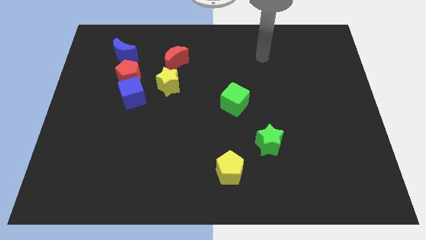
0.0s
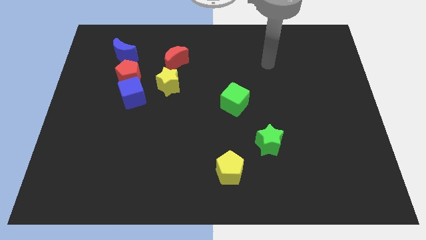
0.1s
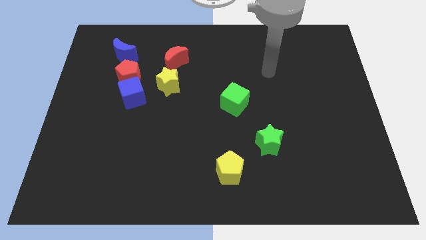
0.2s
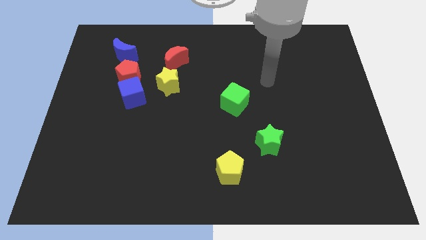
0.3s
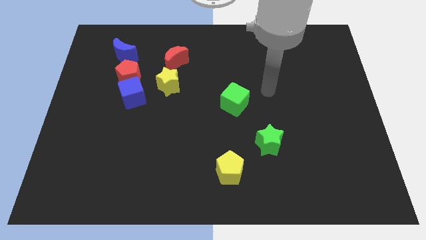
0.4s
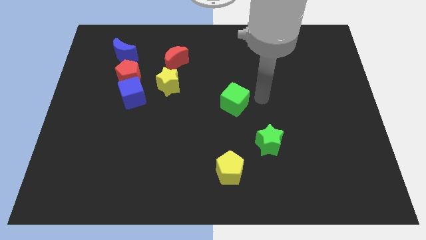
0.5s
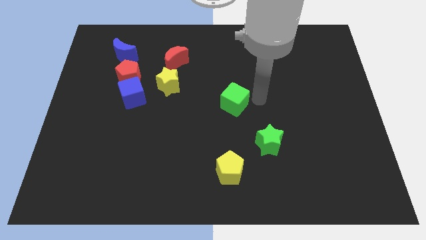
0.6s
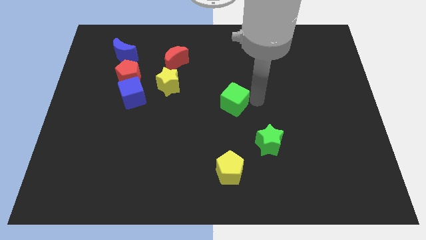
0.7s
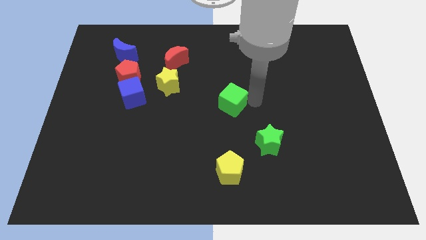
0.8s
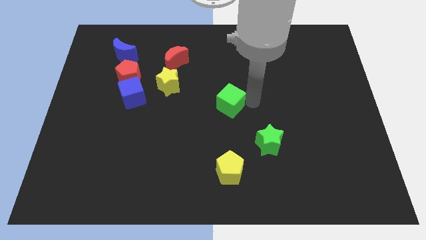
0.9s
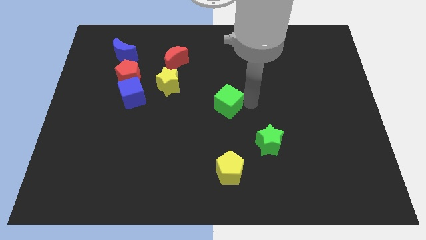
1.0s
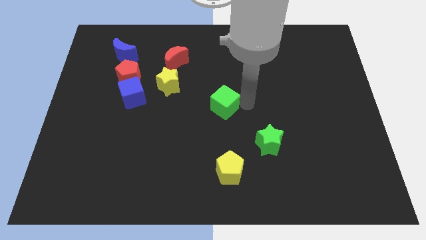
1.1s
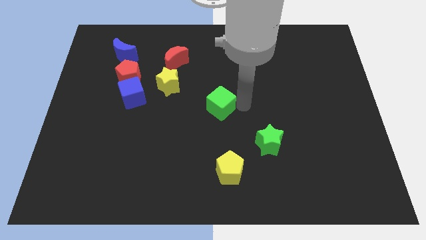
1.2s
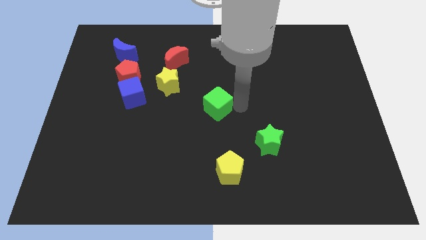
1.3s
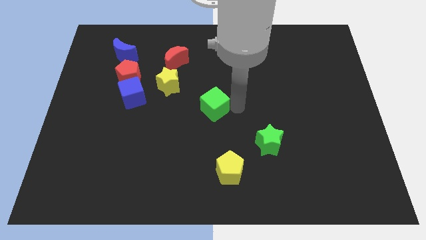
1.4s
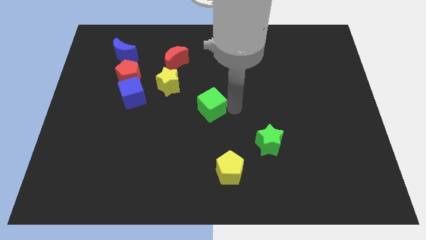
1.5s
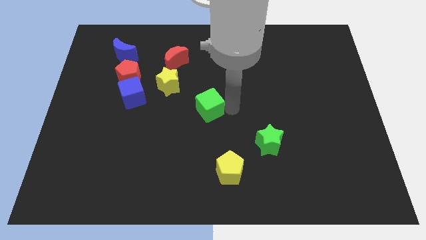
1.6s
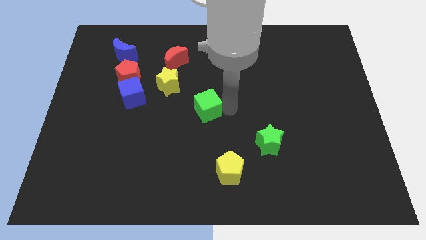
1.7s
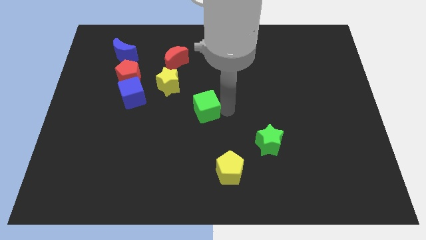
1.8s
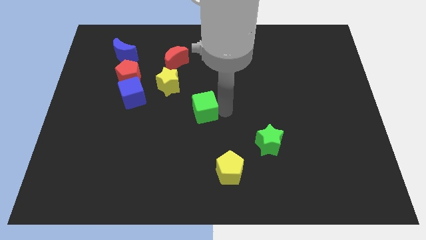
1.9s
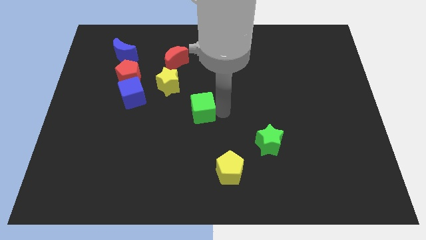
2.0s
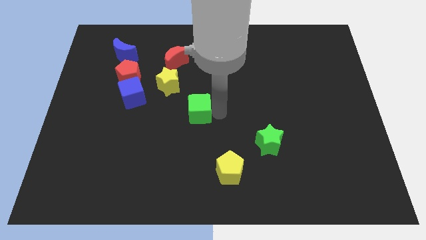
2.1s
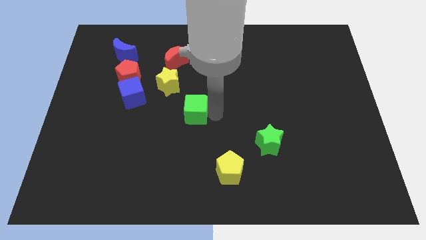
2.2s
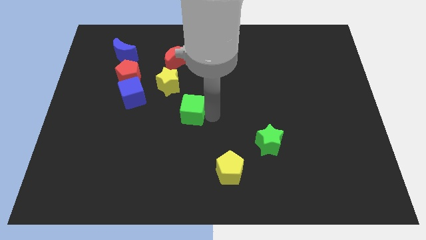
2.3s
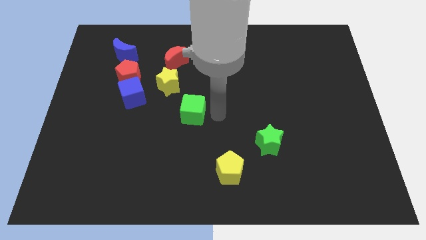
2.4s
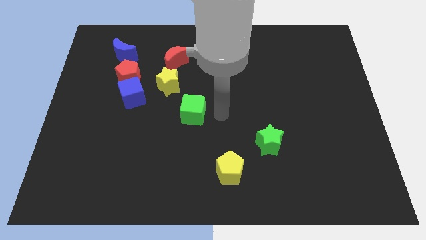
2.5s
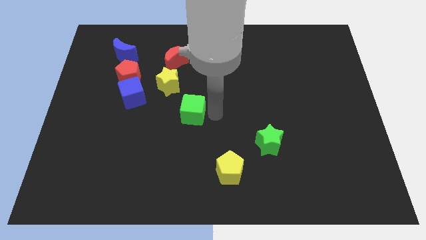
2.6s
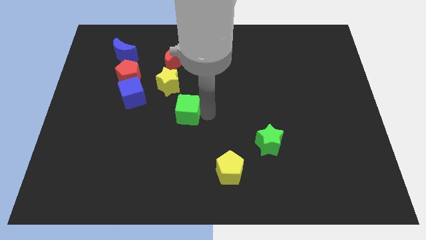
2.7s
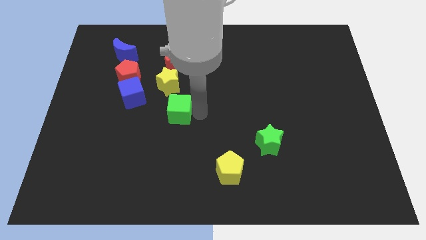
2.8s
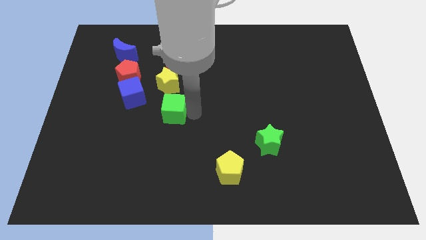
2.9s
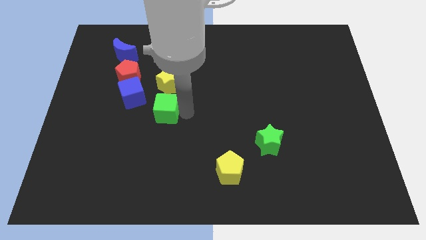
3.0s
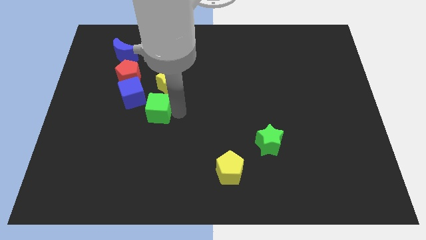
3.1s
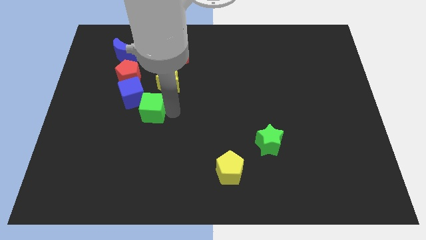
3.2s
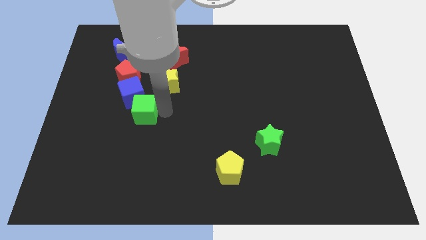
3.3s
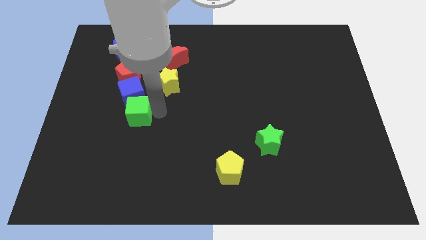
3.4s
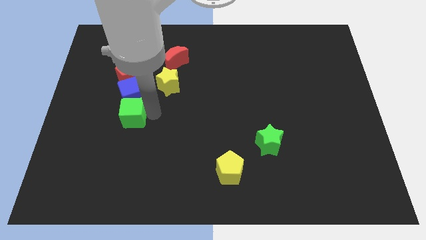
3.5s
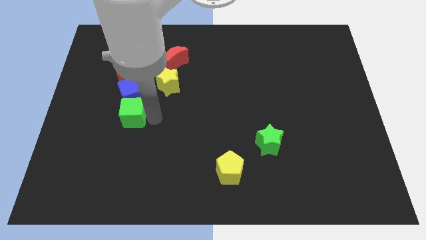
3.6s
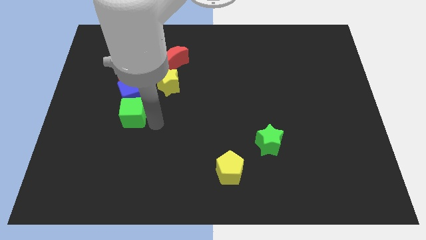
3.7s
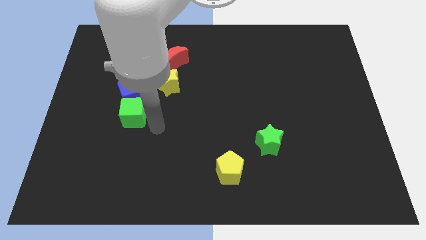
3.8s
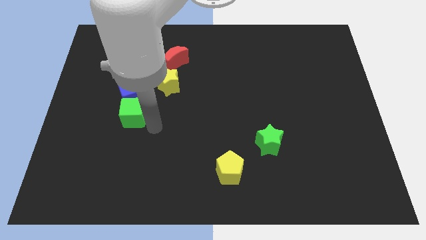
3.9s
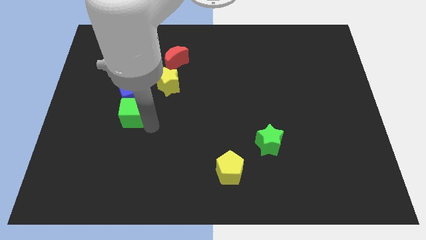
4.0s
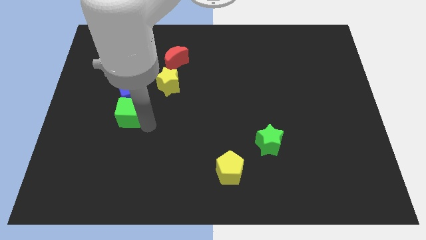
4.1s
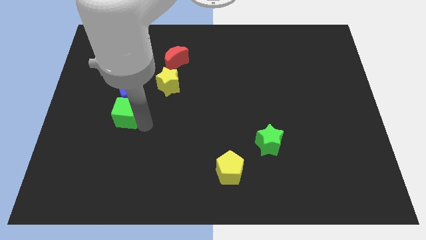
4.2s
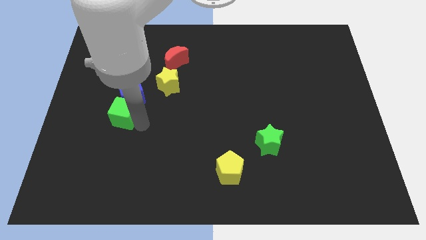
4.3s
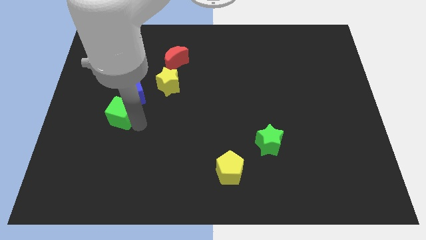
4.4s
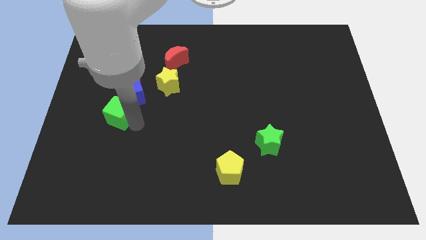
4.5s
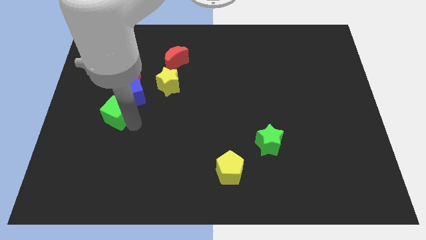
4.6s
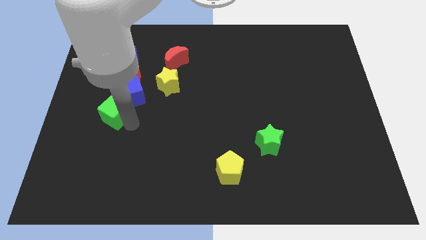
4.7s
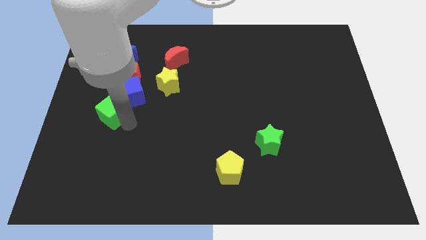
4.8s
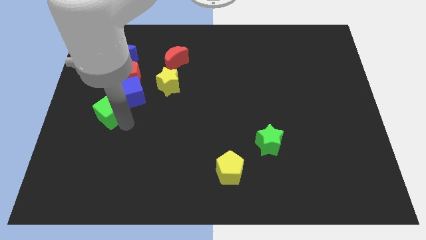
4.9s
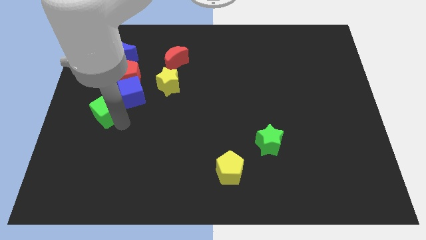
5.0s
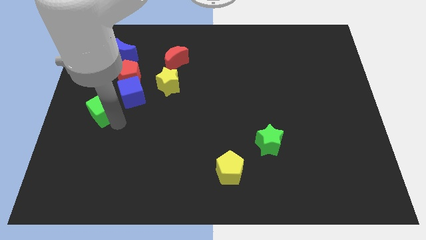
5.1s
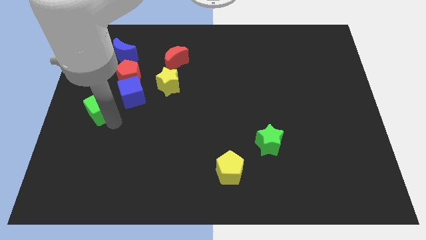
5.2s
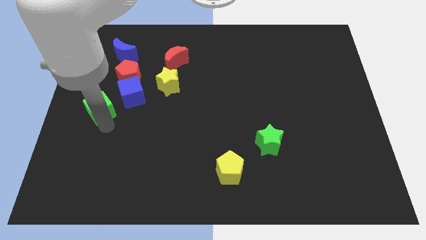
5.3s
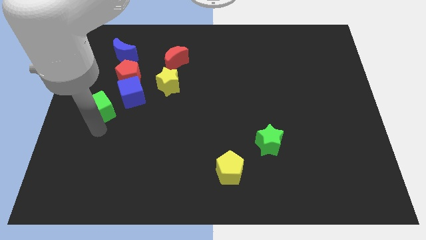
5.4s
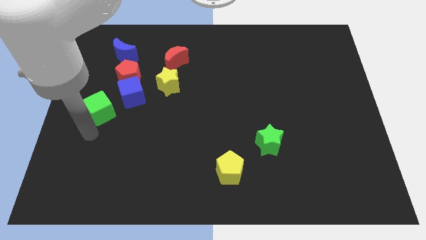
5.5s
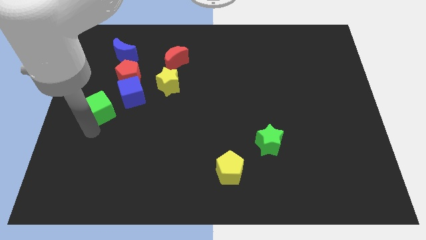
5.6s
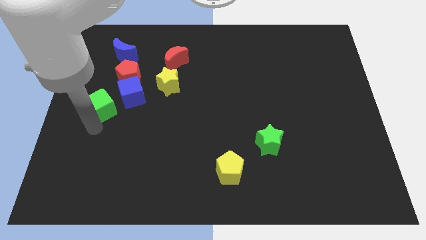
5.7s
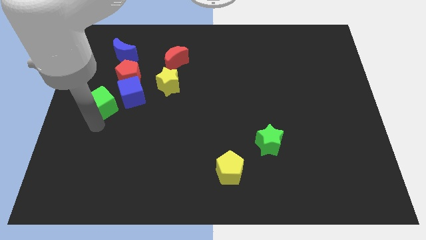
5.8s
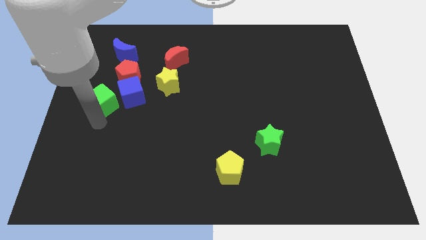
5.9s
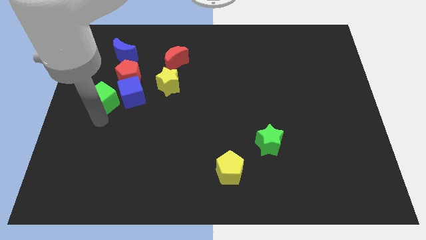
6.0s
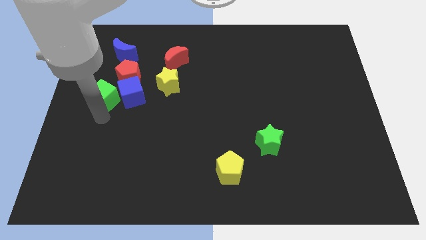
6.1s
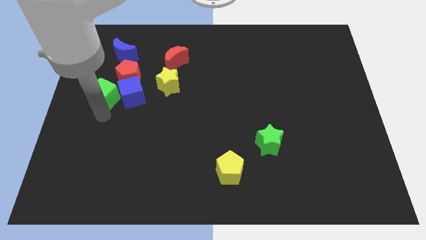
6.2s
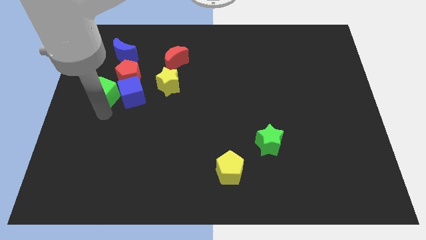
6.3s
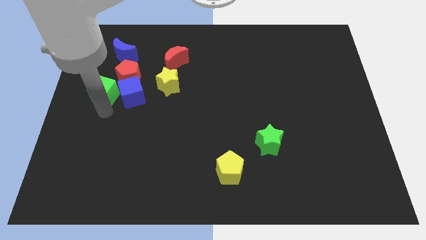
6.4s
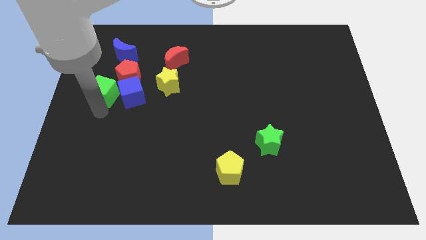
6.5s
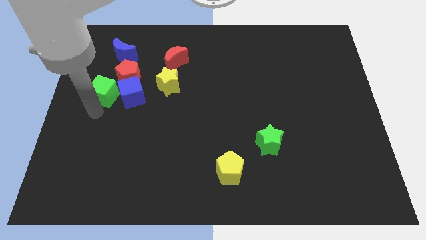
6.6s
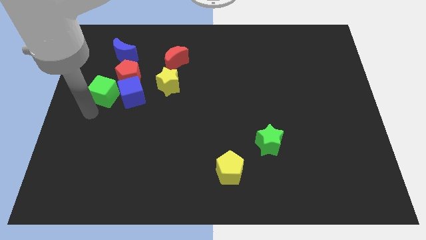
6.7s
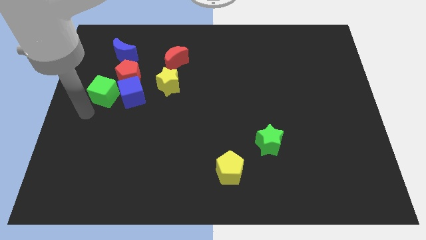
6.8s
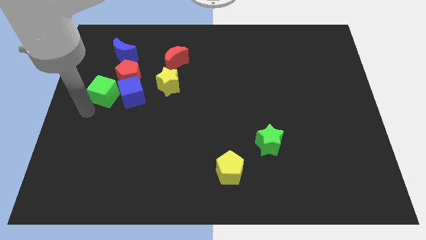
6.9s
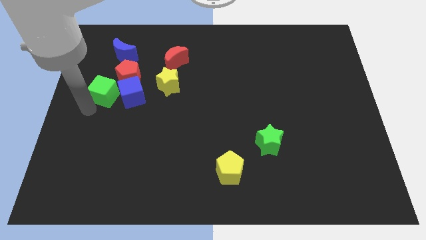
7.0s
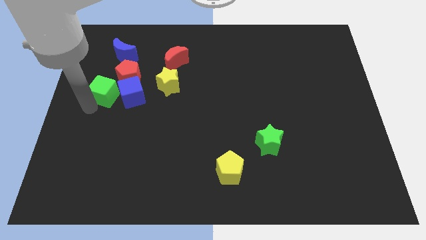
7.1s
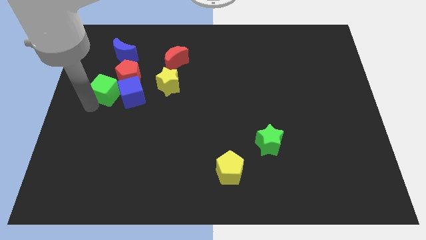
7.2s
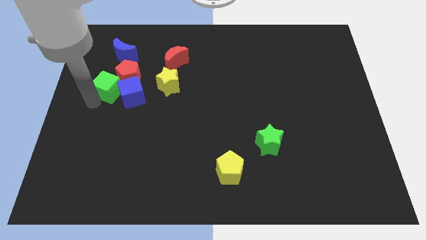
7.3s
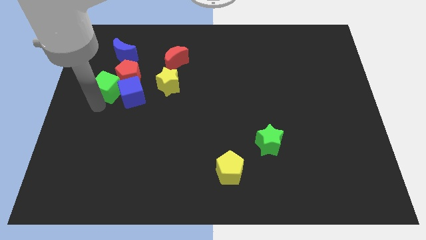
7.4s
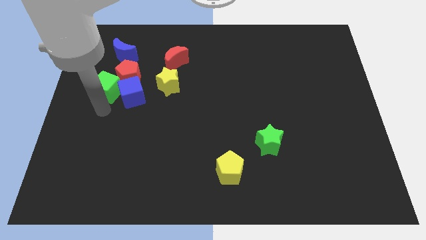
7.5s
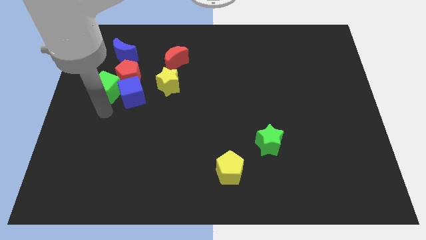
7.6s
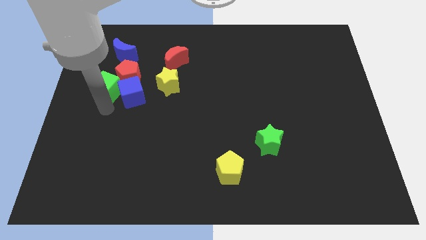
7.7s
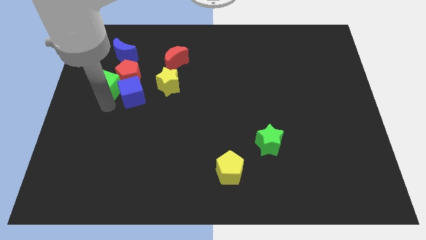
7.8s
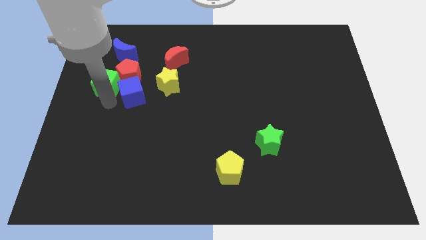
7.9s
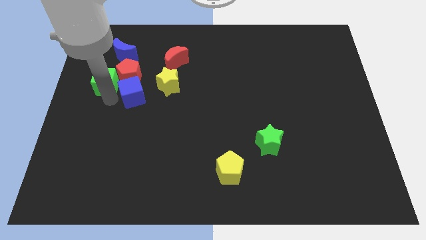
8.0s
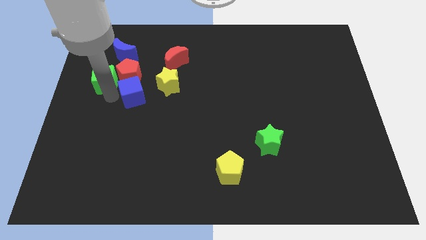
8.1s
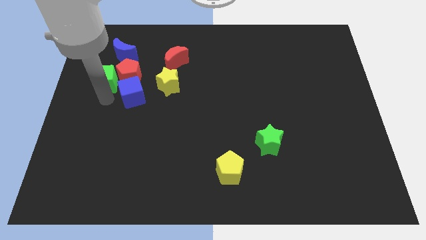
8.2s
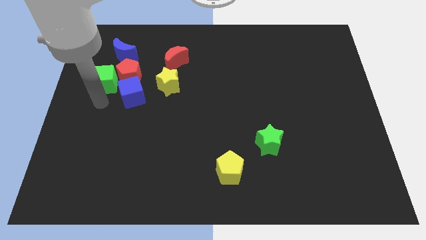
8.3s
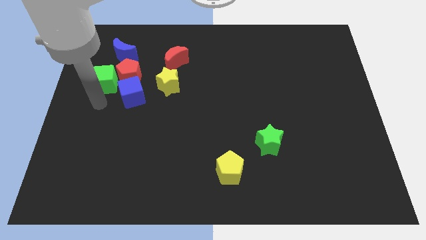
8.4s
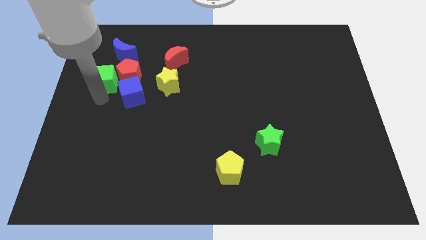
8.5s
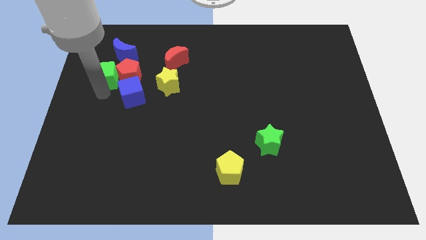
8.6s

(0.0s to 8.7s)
slide the green cube to the top left side of the red pentagon
